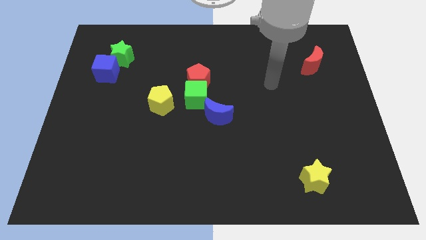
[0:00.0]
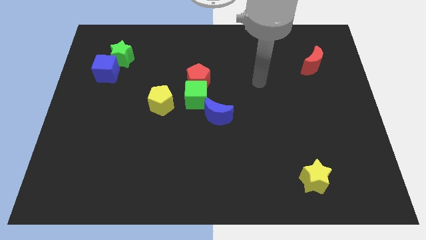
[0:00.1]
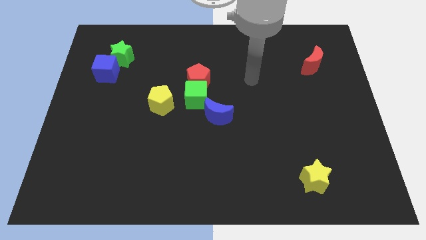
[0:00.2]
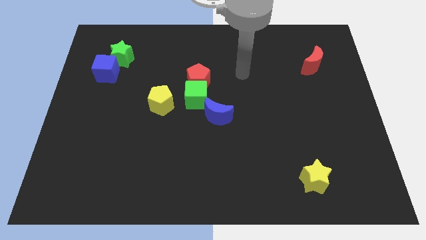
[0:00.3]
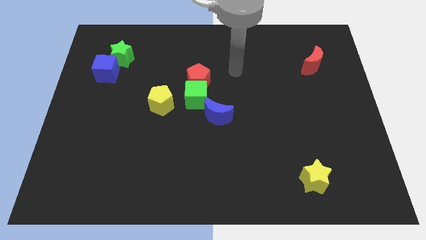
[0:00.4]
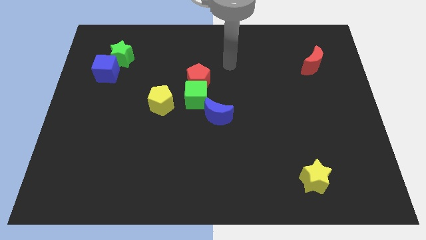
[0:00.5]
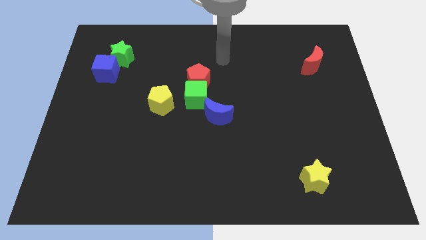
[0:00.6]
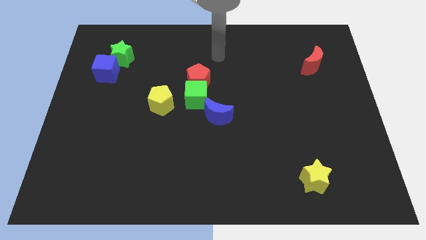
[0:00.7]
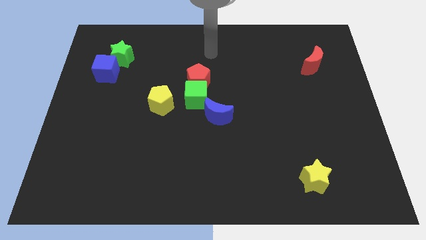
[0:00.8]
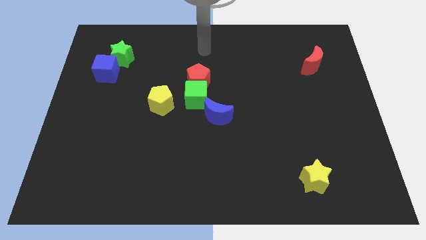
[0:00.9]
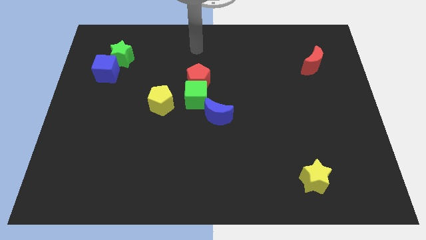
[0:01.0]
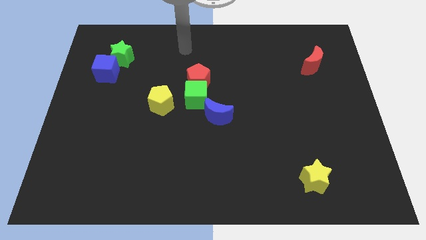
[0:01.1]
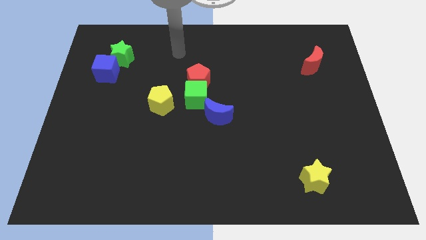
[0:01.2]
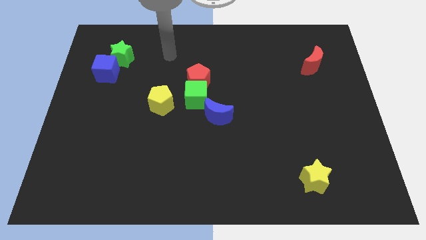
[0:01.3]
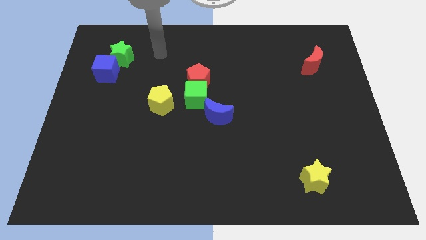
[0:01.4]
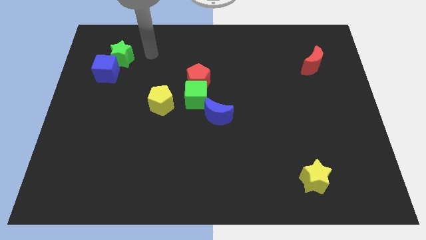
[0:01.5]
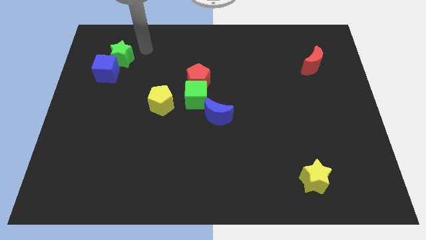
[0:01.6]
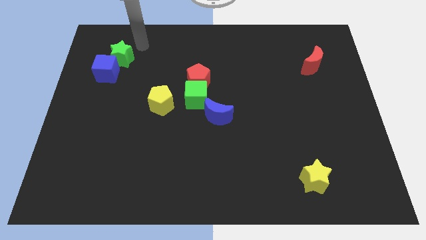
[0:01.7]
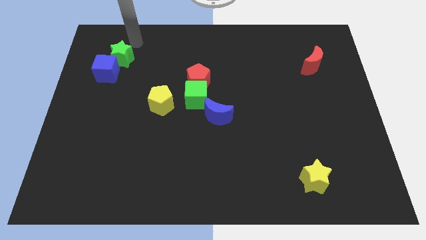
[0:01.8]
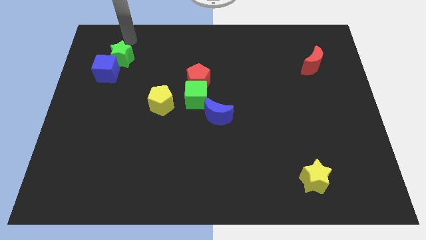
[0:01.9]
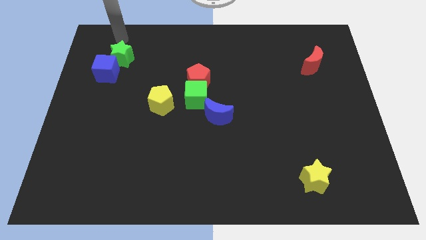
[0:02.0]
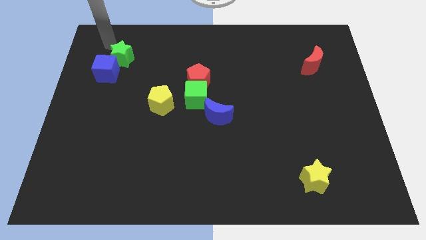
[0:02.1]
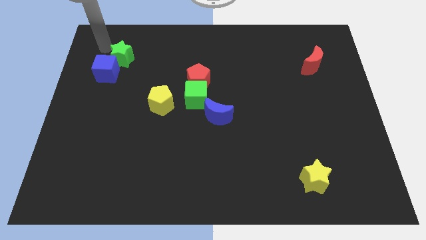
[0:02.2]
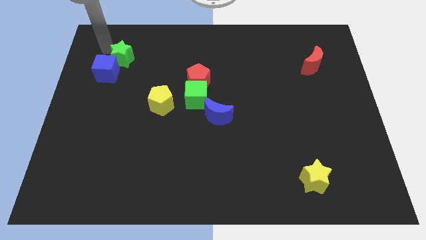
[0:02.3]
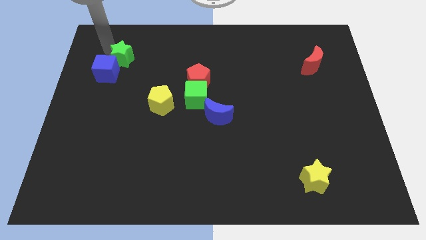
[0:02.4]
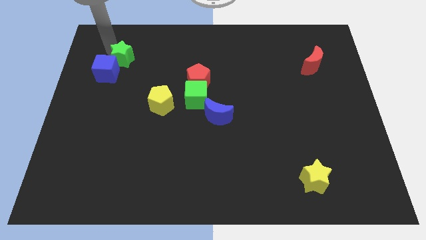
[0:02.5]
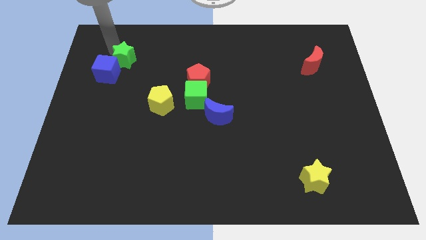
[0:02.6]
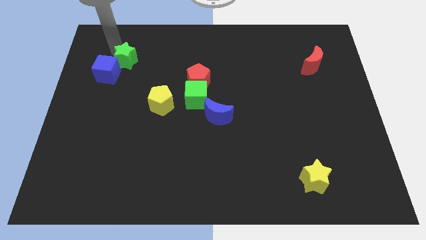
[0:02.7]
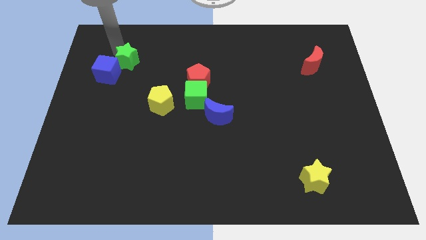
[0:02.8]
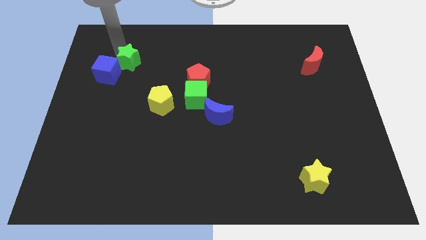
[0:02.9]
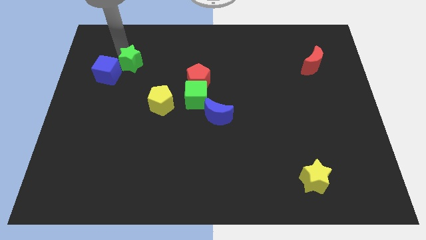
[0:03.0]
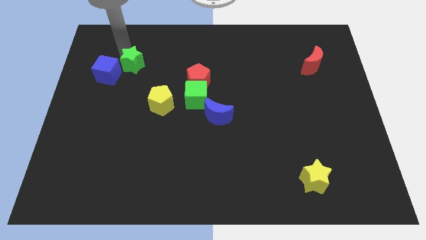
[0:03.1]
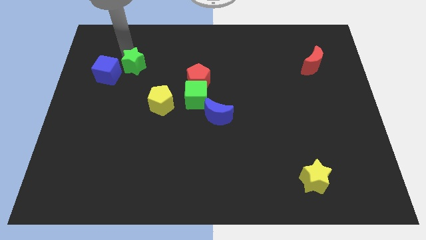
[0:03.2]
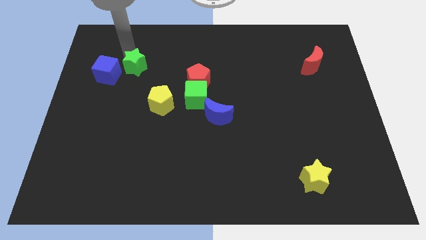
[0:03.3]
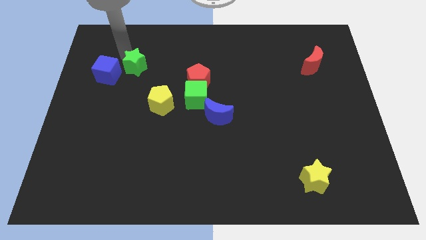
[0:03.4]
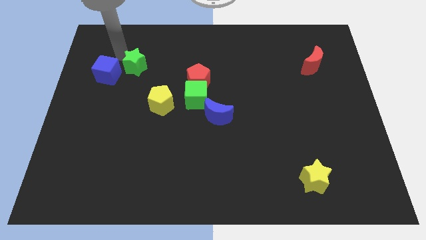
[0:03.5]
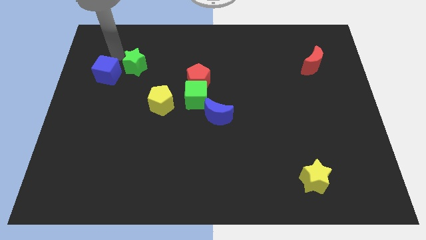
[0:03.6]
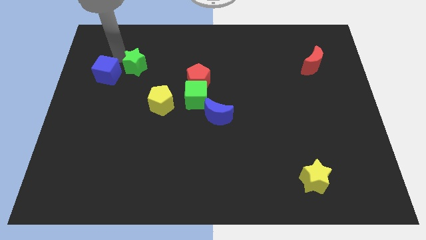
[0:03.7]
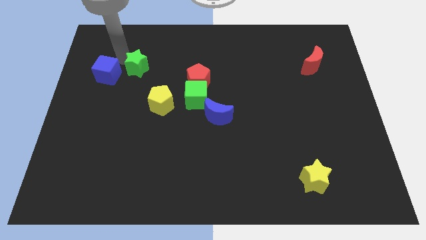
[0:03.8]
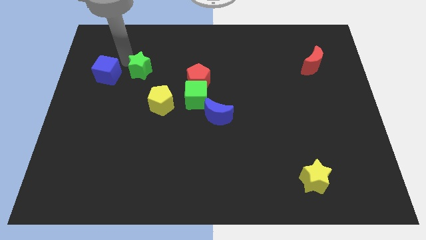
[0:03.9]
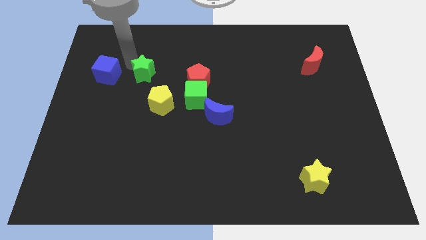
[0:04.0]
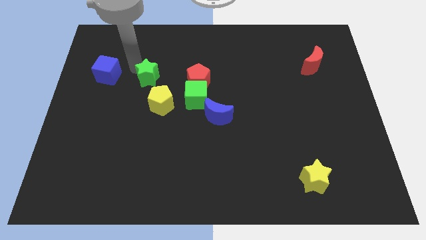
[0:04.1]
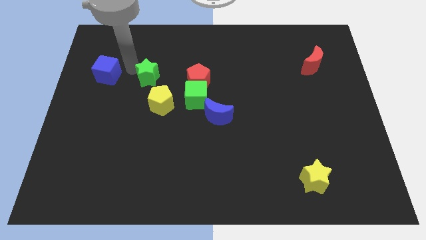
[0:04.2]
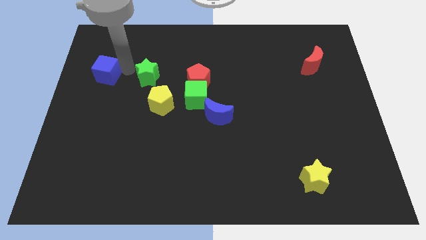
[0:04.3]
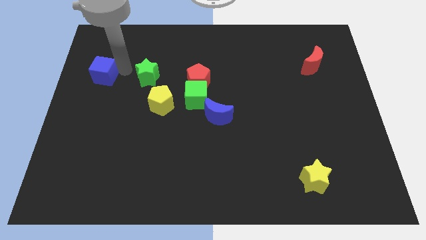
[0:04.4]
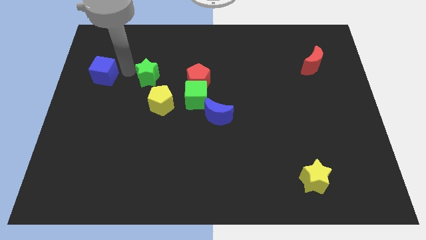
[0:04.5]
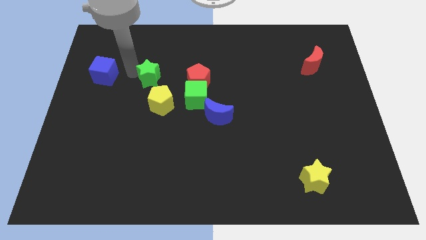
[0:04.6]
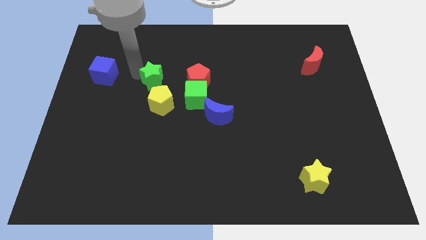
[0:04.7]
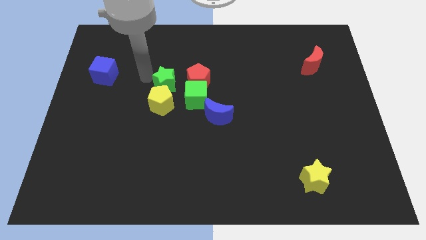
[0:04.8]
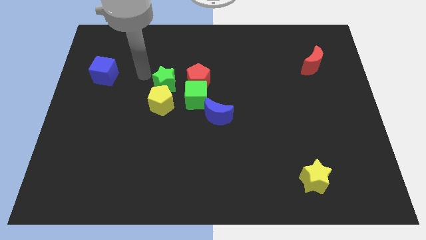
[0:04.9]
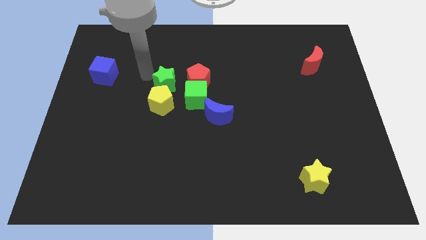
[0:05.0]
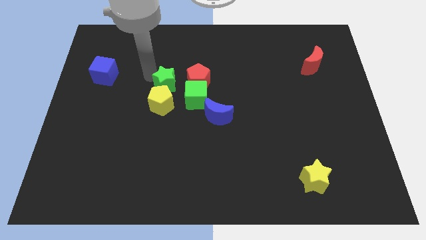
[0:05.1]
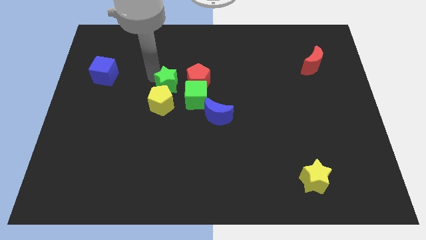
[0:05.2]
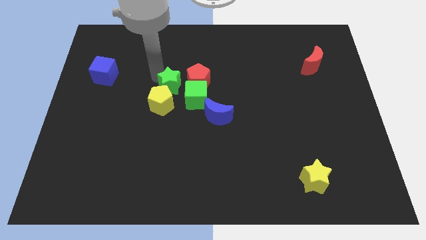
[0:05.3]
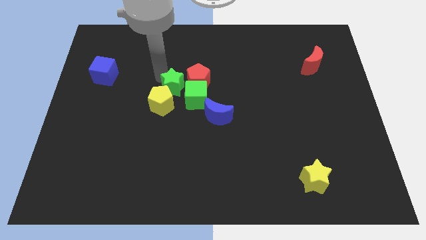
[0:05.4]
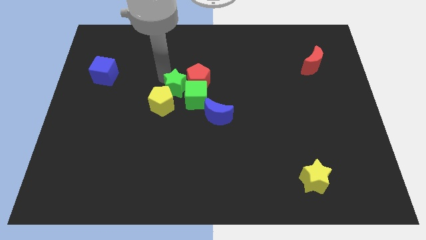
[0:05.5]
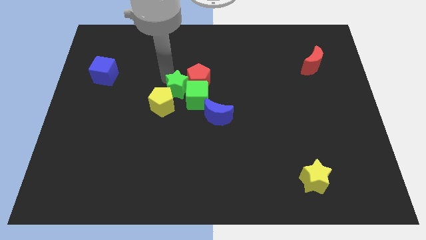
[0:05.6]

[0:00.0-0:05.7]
slide the green star to the green cube

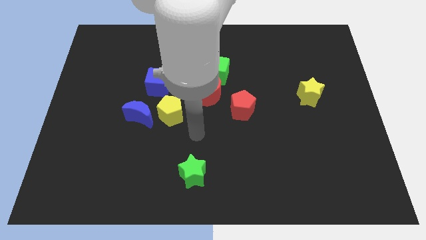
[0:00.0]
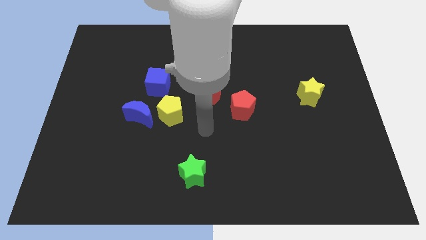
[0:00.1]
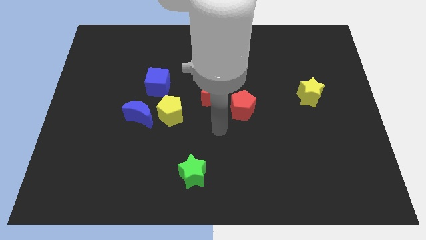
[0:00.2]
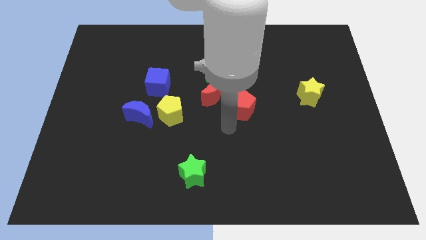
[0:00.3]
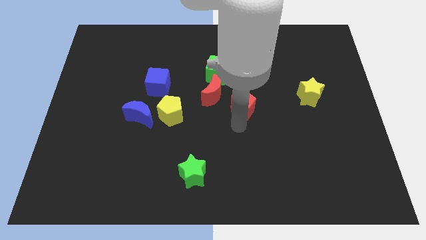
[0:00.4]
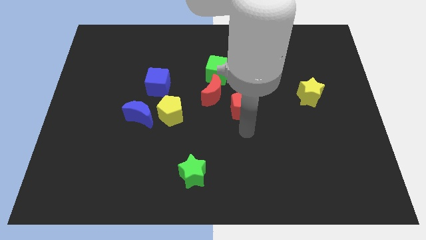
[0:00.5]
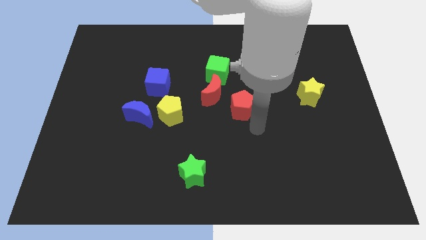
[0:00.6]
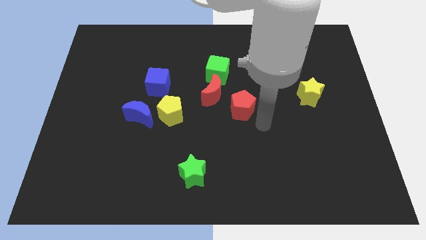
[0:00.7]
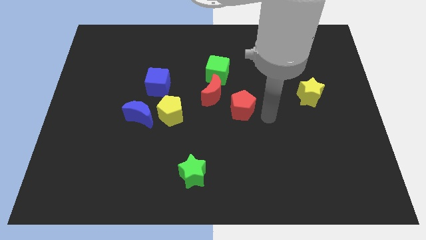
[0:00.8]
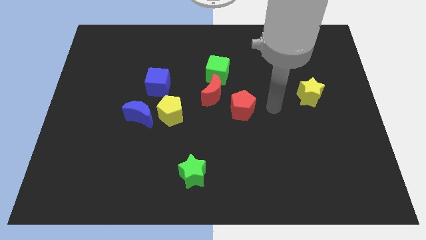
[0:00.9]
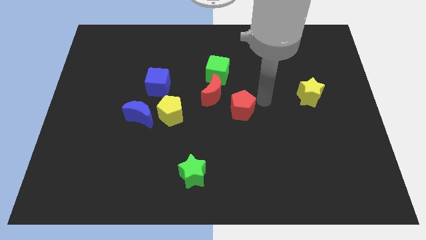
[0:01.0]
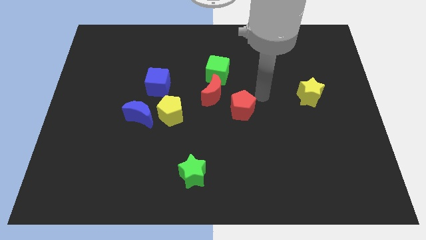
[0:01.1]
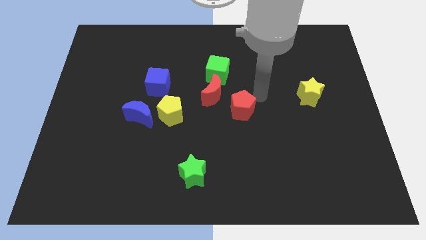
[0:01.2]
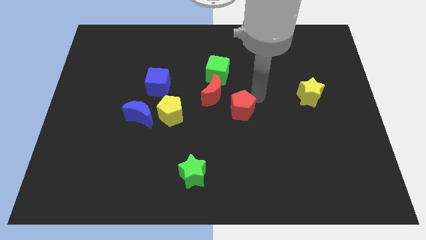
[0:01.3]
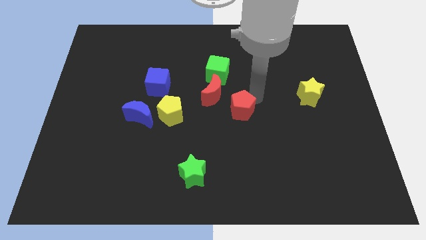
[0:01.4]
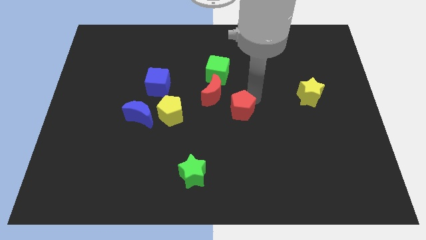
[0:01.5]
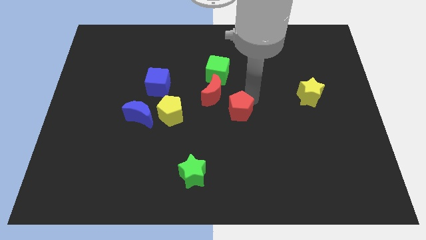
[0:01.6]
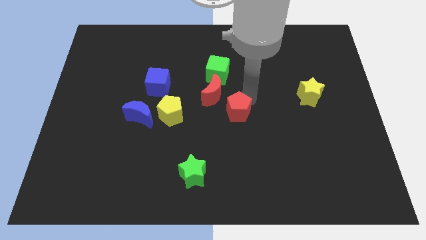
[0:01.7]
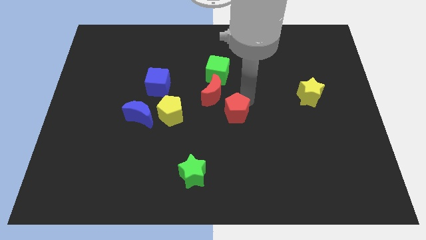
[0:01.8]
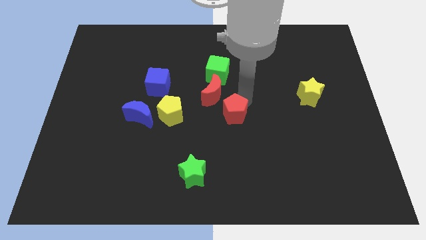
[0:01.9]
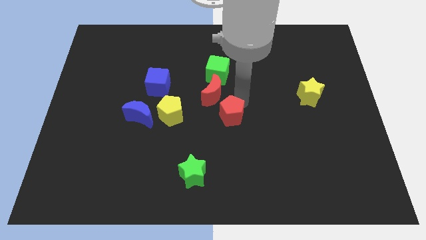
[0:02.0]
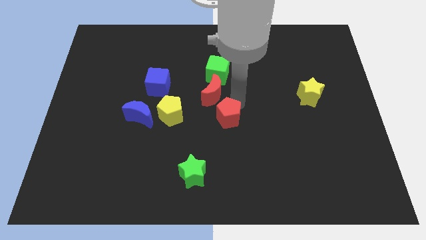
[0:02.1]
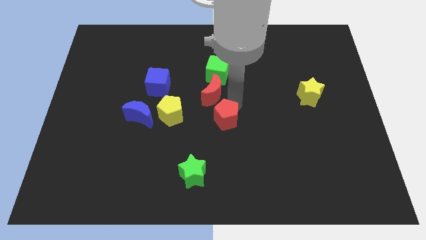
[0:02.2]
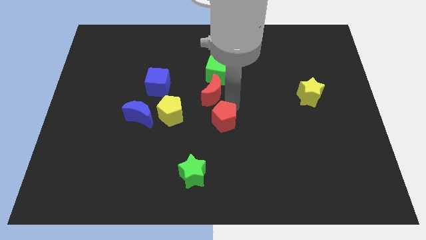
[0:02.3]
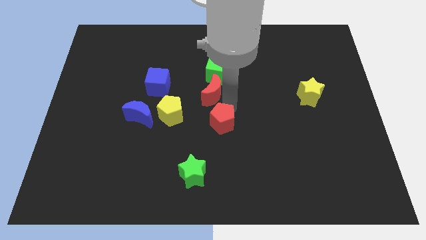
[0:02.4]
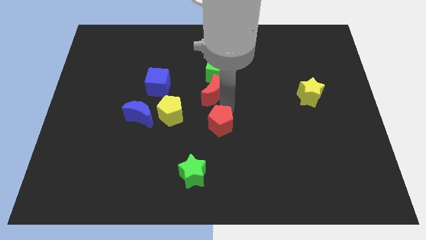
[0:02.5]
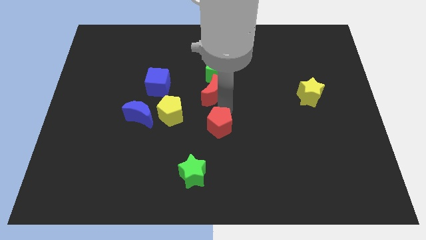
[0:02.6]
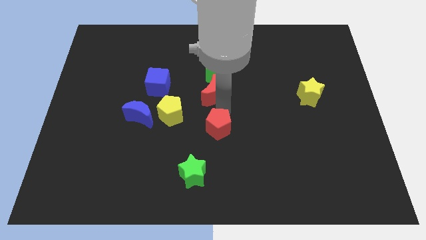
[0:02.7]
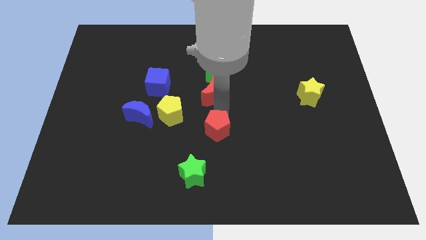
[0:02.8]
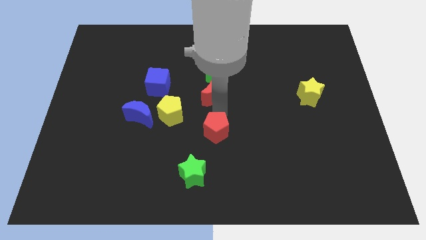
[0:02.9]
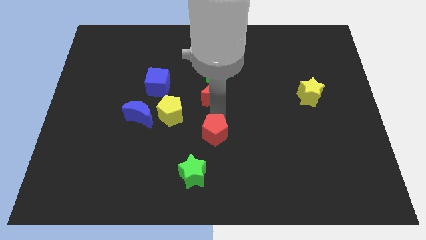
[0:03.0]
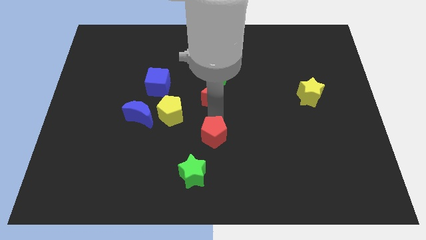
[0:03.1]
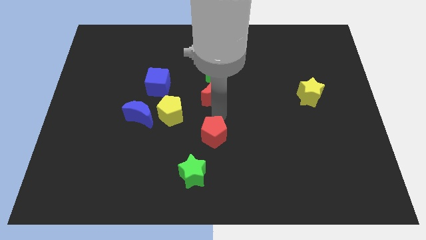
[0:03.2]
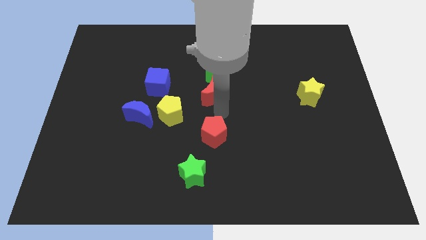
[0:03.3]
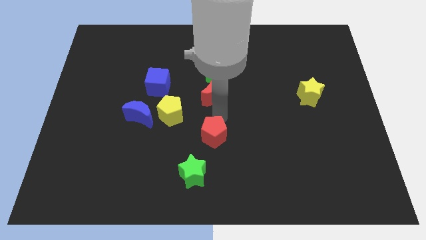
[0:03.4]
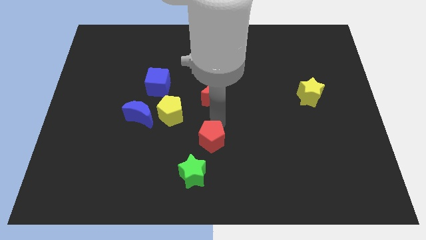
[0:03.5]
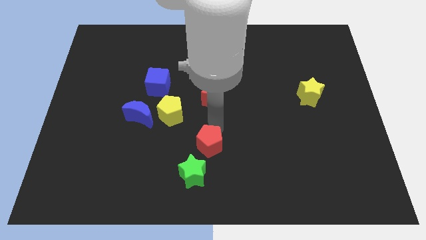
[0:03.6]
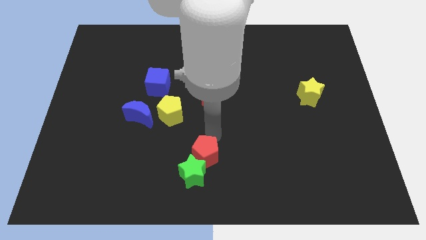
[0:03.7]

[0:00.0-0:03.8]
slide the red pentagon towards the green star
